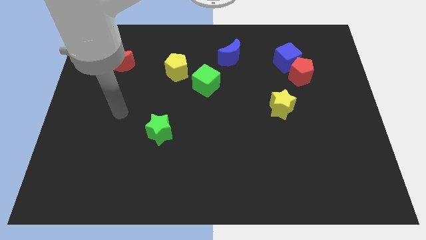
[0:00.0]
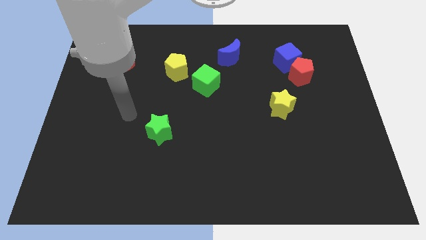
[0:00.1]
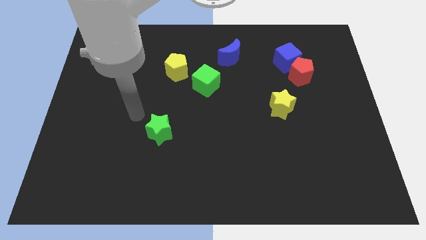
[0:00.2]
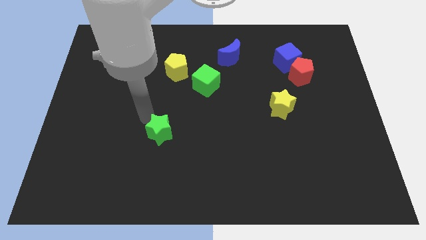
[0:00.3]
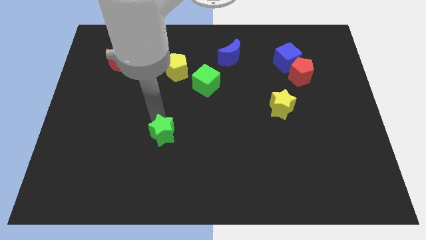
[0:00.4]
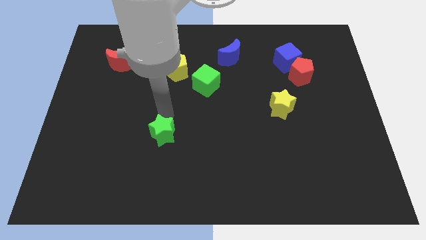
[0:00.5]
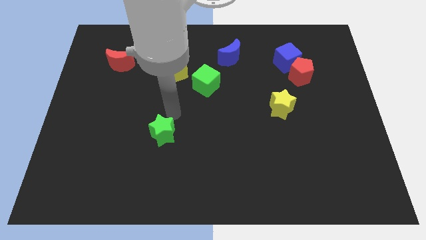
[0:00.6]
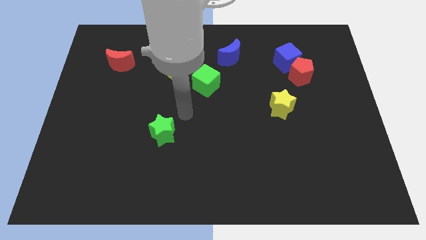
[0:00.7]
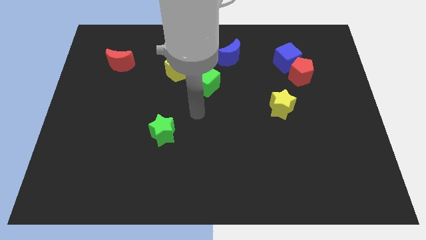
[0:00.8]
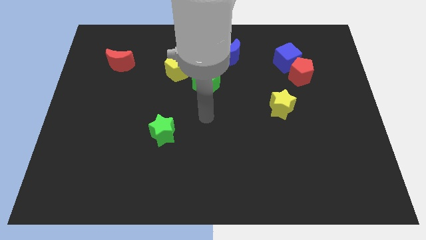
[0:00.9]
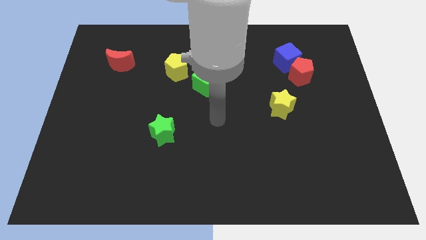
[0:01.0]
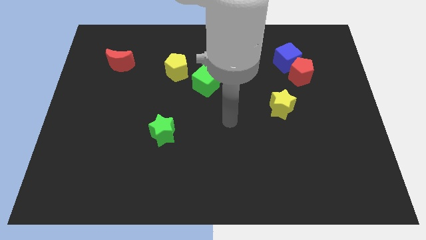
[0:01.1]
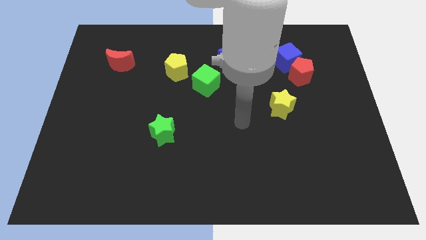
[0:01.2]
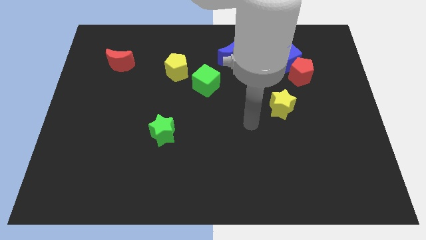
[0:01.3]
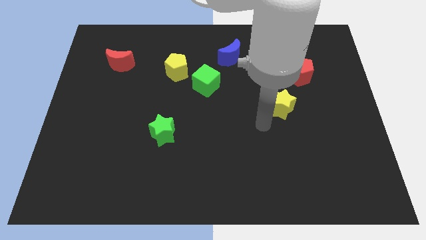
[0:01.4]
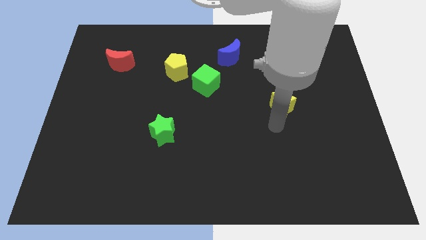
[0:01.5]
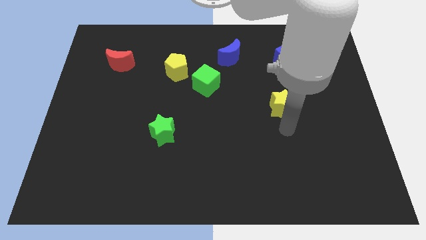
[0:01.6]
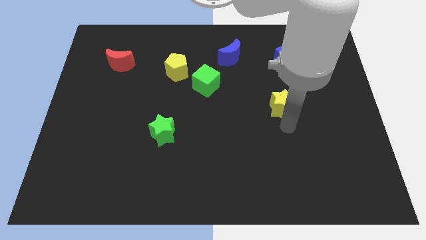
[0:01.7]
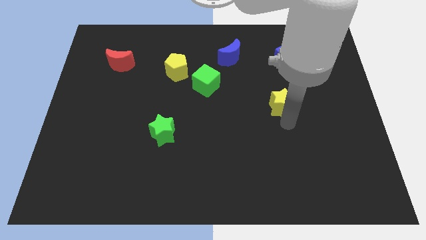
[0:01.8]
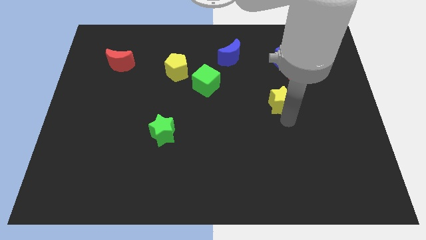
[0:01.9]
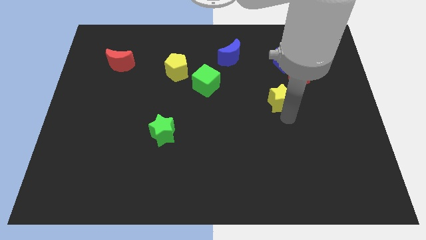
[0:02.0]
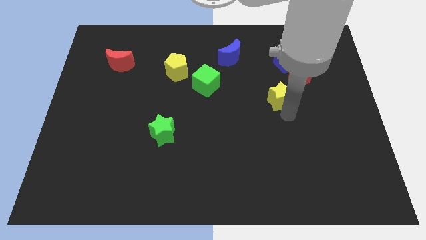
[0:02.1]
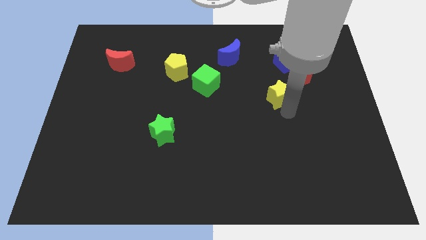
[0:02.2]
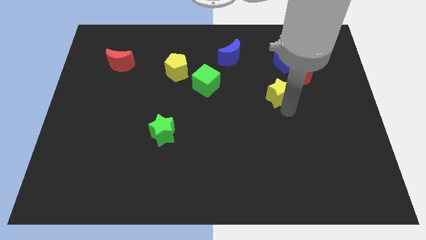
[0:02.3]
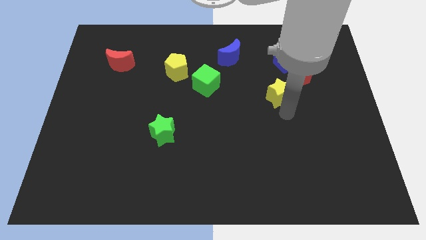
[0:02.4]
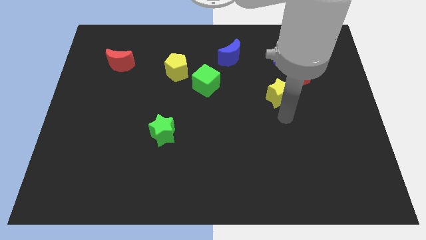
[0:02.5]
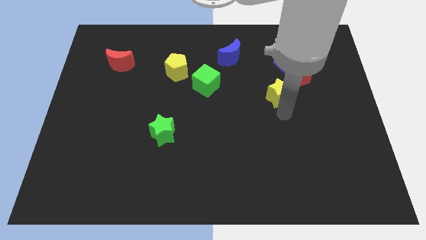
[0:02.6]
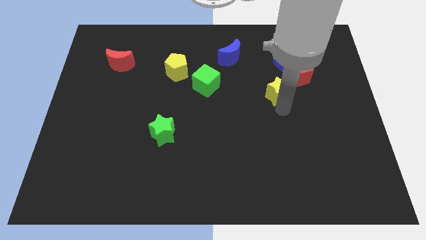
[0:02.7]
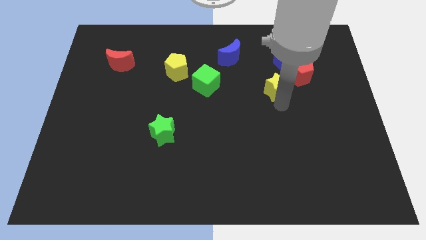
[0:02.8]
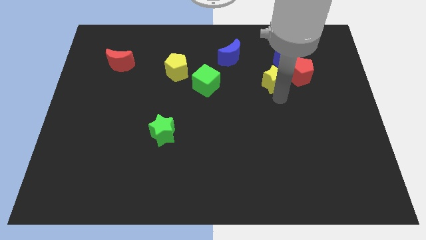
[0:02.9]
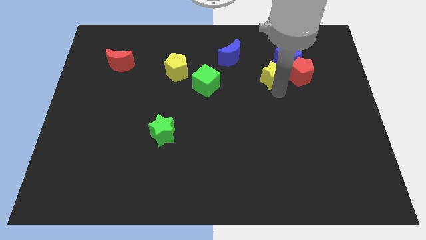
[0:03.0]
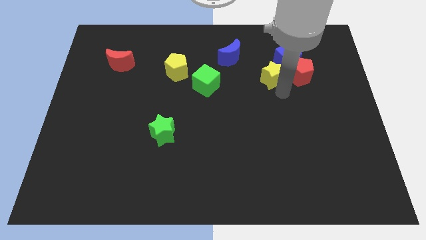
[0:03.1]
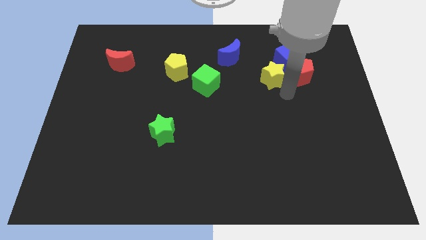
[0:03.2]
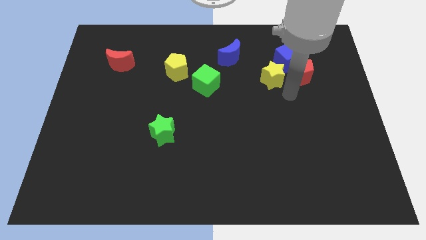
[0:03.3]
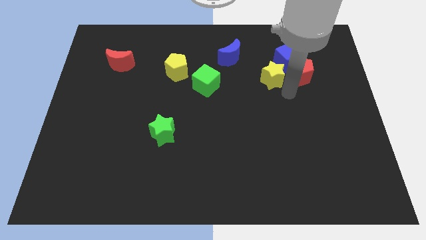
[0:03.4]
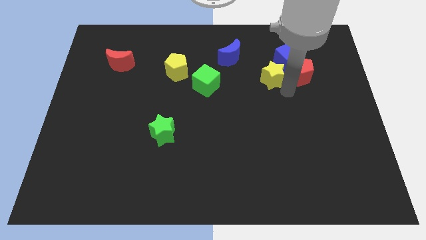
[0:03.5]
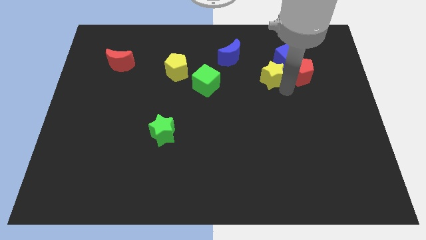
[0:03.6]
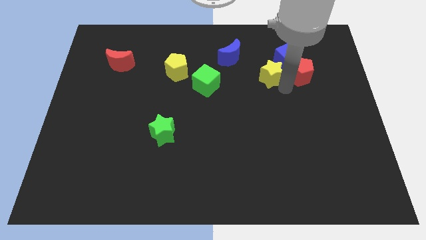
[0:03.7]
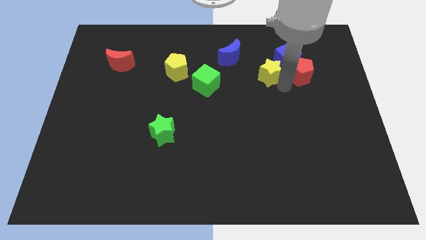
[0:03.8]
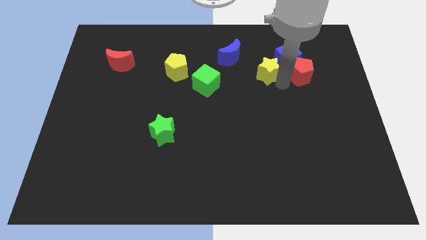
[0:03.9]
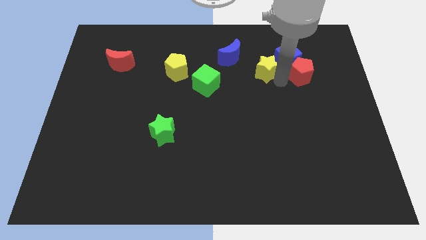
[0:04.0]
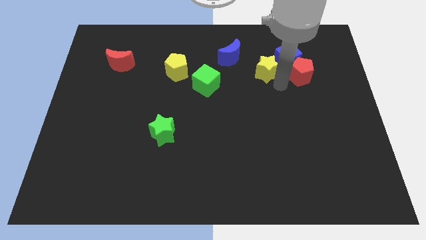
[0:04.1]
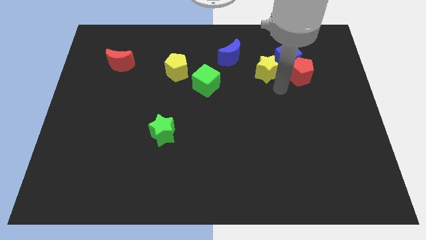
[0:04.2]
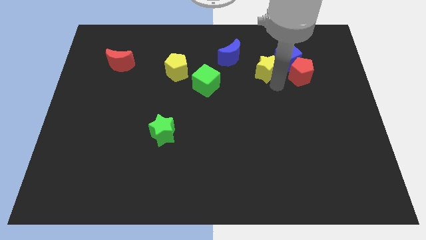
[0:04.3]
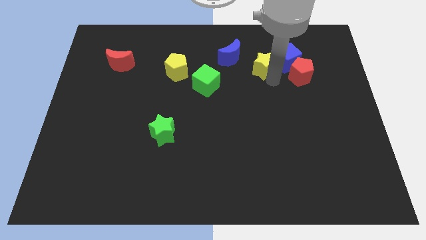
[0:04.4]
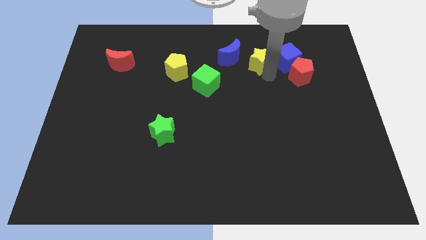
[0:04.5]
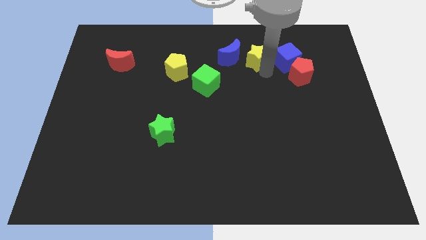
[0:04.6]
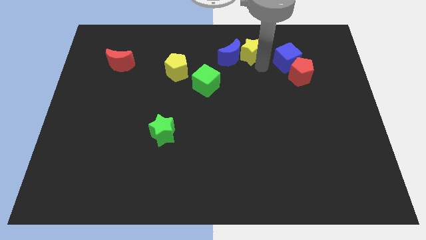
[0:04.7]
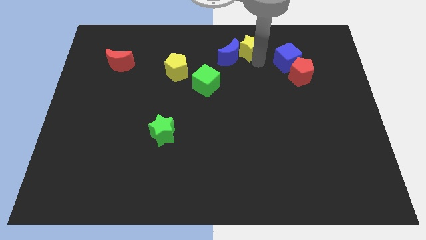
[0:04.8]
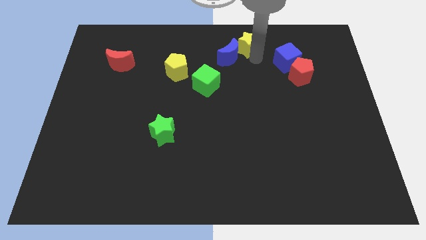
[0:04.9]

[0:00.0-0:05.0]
slide the yellow star to the towards your base

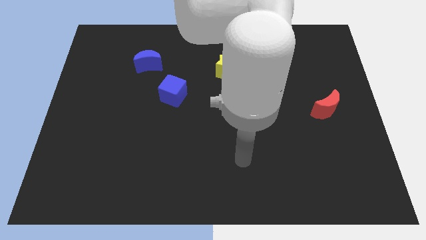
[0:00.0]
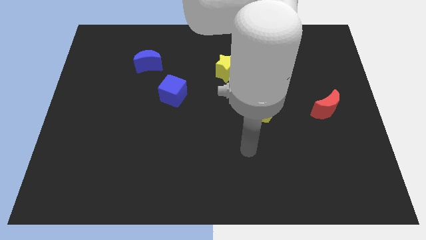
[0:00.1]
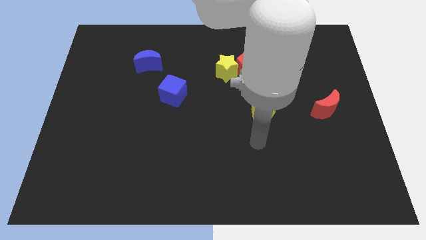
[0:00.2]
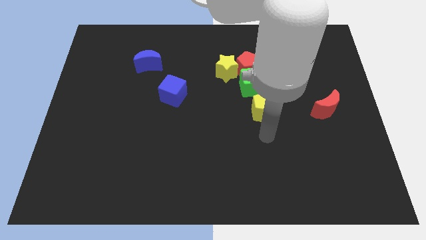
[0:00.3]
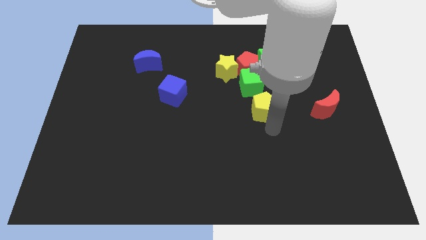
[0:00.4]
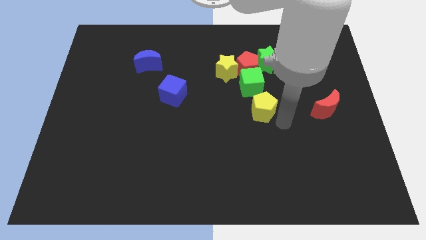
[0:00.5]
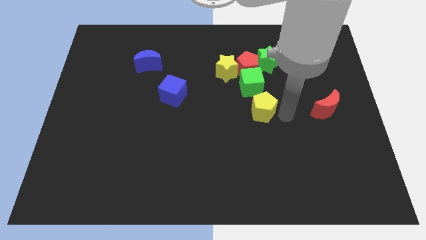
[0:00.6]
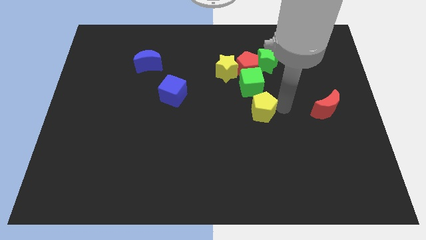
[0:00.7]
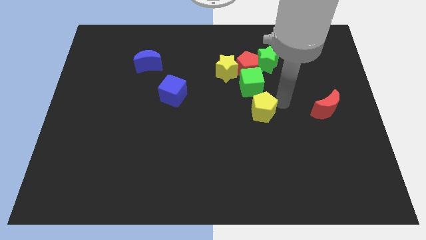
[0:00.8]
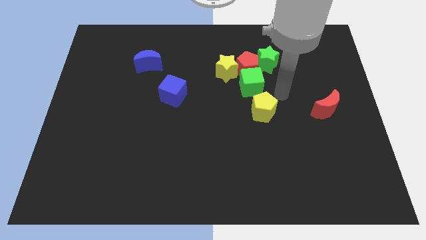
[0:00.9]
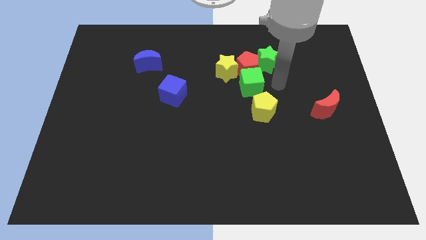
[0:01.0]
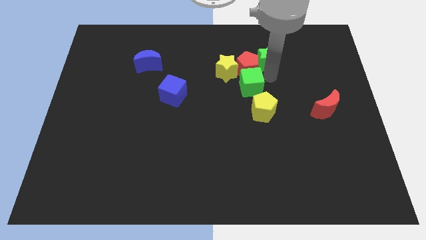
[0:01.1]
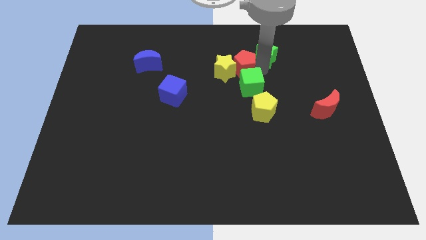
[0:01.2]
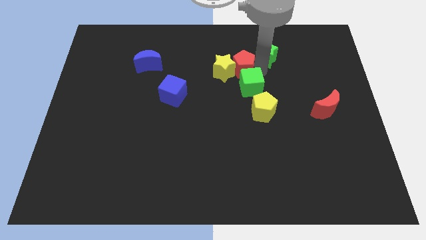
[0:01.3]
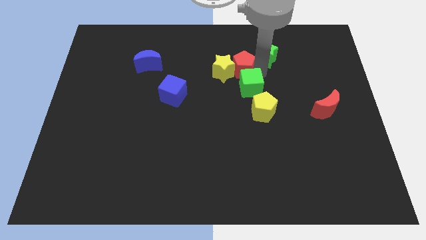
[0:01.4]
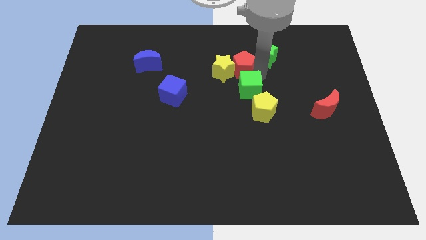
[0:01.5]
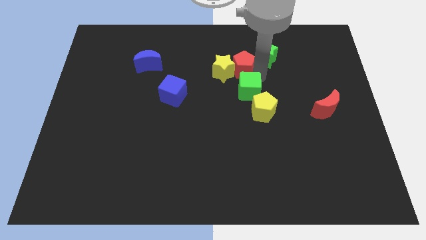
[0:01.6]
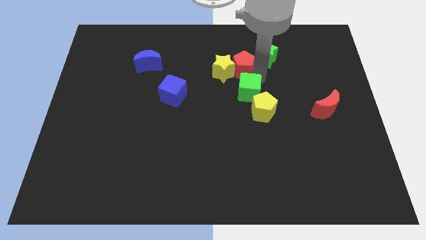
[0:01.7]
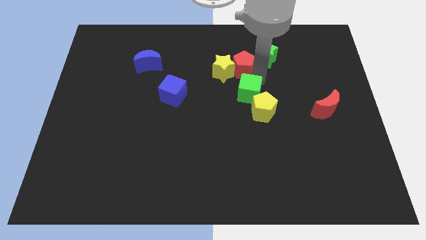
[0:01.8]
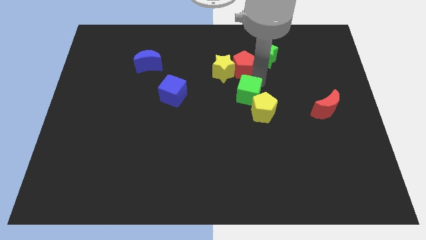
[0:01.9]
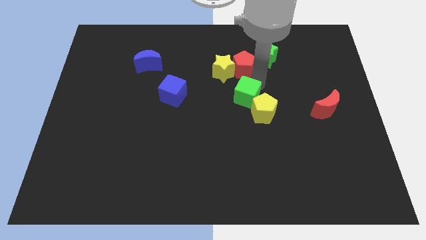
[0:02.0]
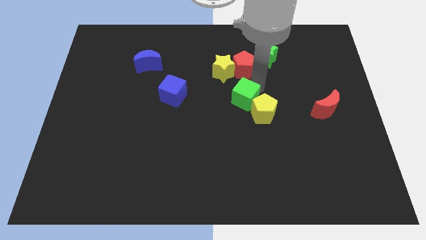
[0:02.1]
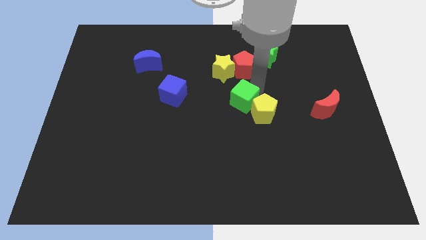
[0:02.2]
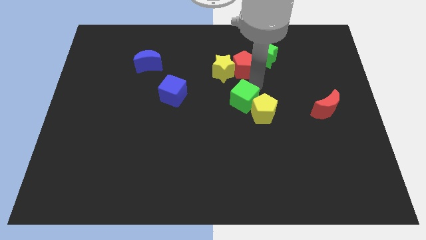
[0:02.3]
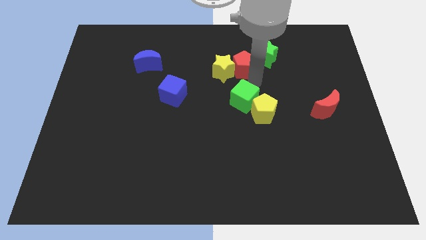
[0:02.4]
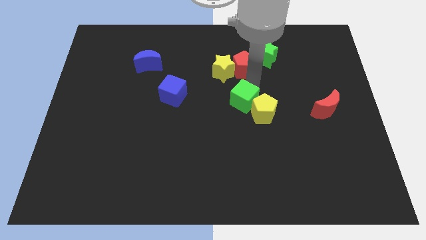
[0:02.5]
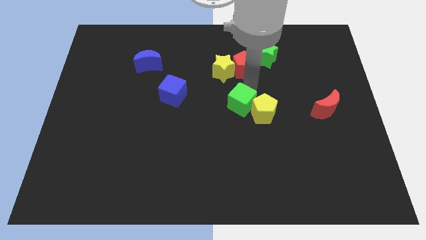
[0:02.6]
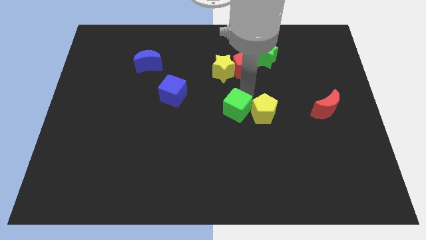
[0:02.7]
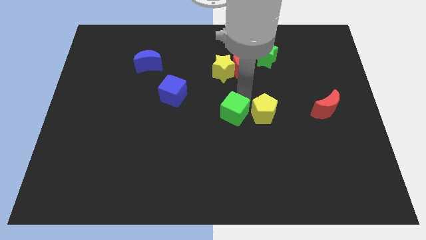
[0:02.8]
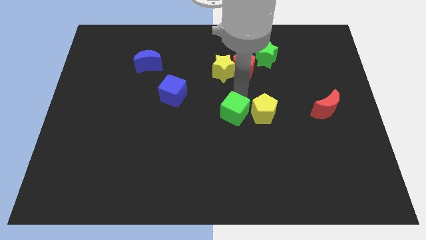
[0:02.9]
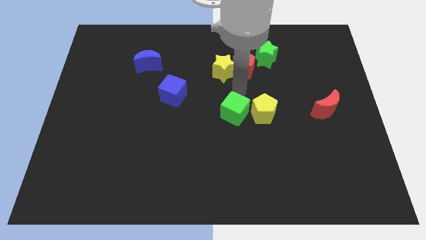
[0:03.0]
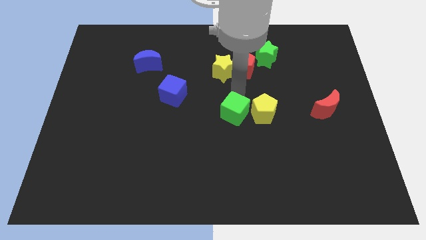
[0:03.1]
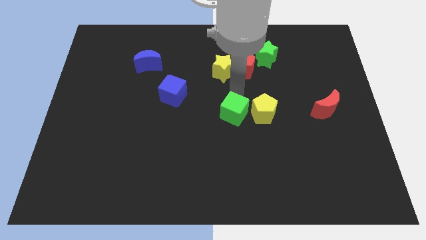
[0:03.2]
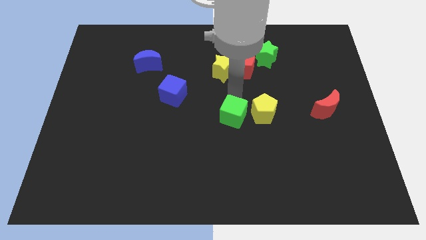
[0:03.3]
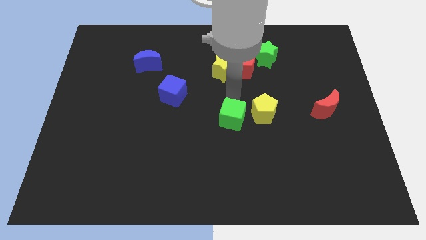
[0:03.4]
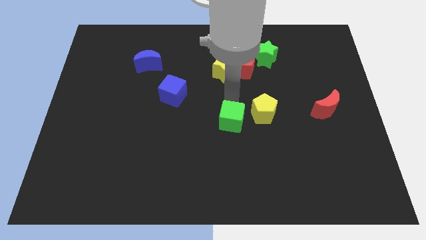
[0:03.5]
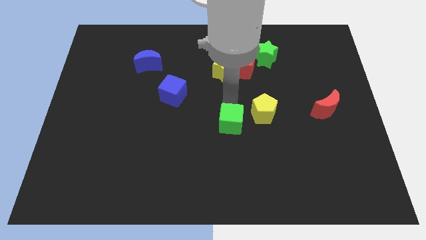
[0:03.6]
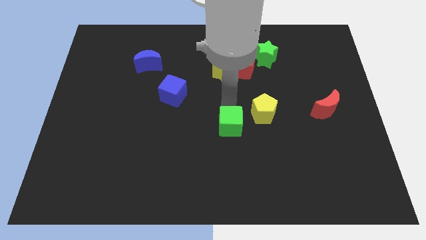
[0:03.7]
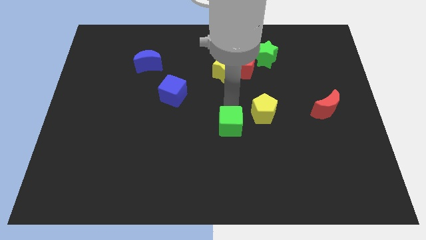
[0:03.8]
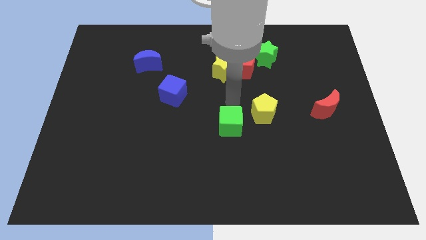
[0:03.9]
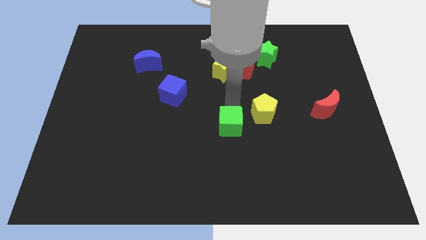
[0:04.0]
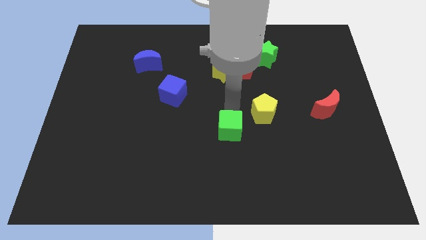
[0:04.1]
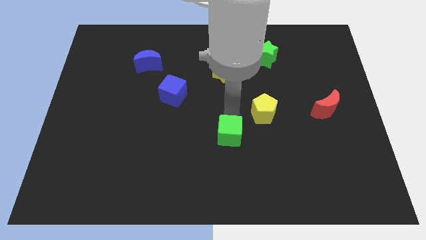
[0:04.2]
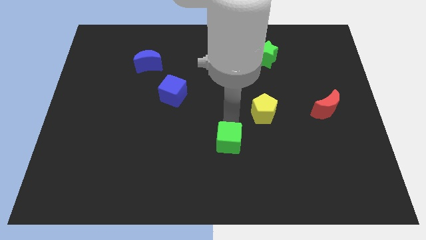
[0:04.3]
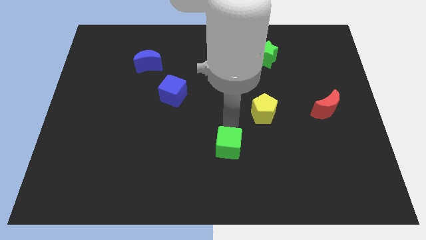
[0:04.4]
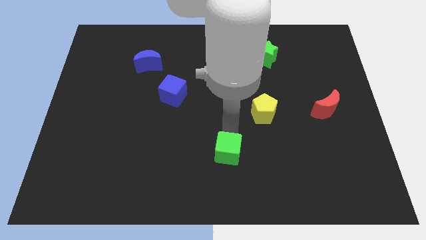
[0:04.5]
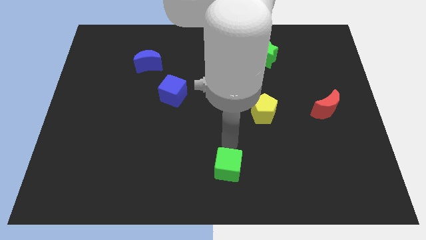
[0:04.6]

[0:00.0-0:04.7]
push the green cube to the bottom side
